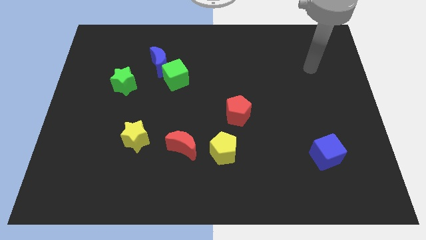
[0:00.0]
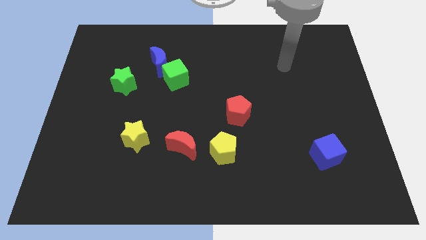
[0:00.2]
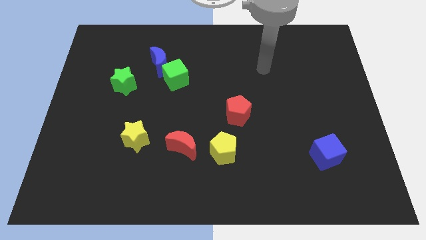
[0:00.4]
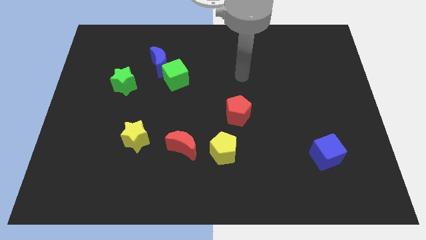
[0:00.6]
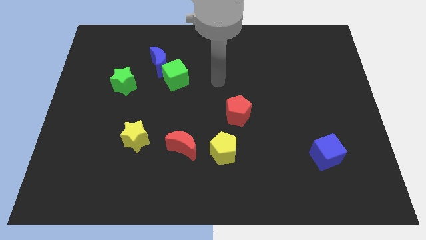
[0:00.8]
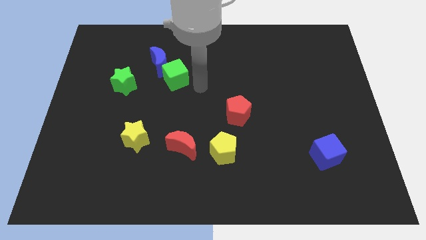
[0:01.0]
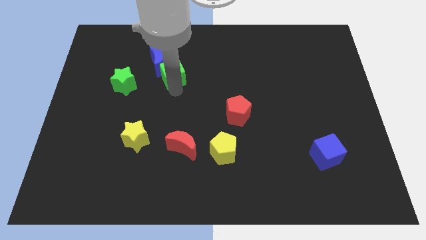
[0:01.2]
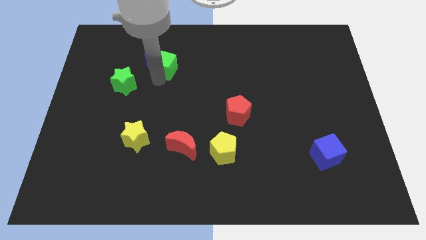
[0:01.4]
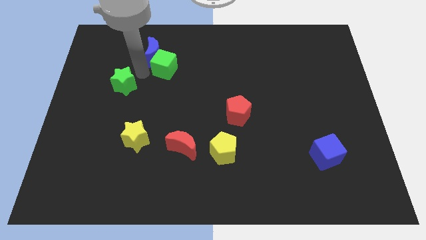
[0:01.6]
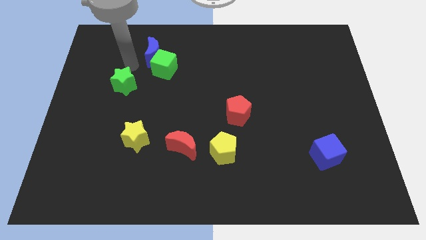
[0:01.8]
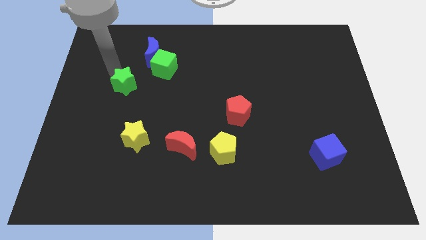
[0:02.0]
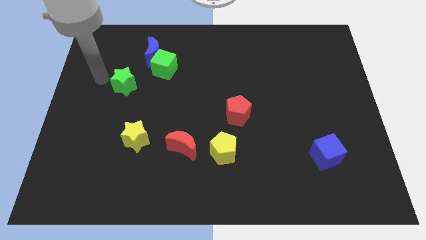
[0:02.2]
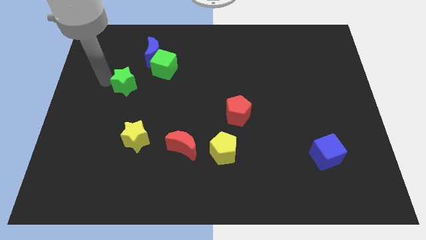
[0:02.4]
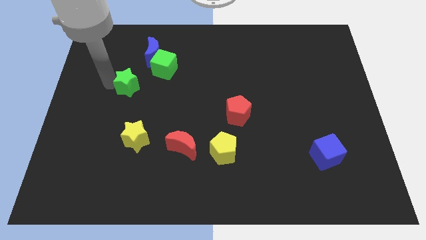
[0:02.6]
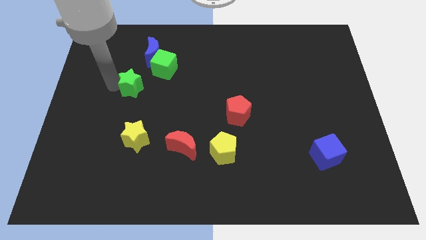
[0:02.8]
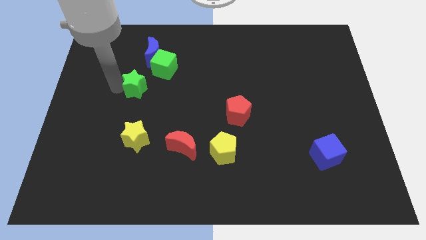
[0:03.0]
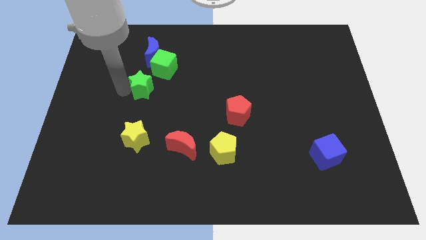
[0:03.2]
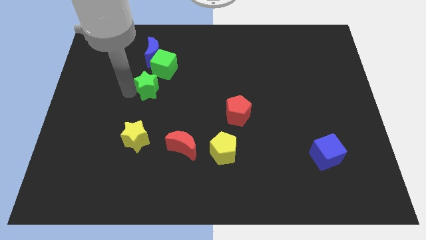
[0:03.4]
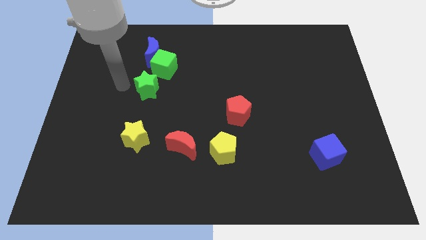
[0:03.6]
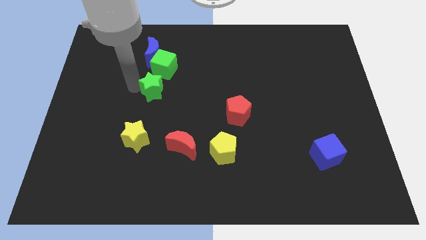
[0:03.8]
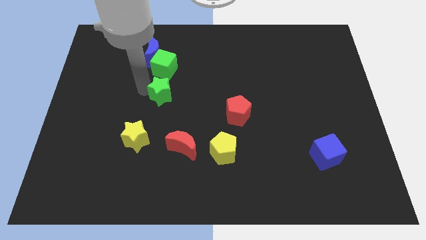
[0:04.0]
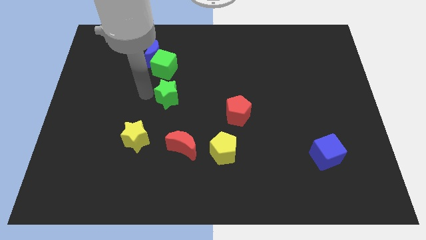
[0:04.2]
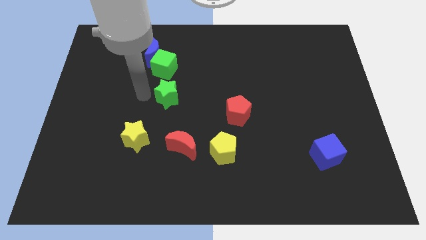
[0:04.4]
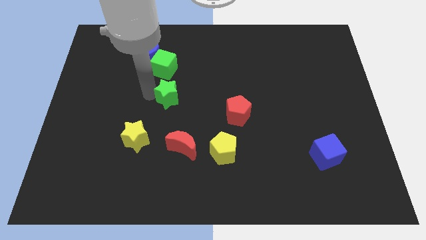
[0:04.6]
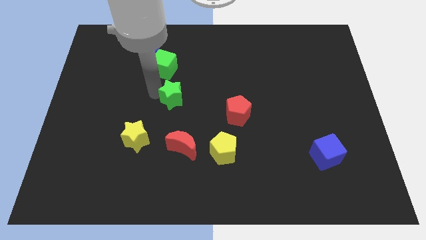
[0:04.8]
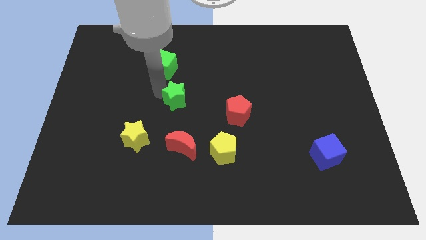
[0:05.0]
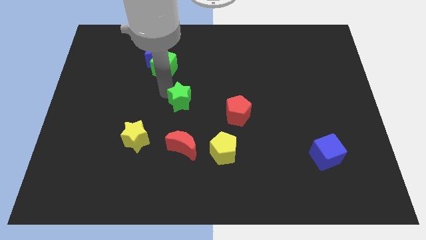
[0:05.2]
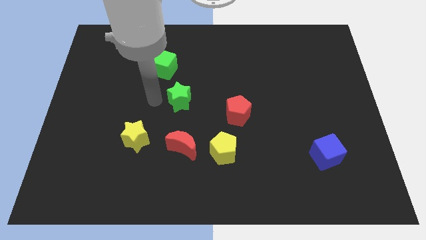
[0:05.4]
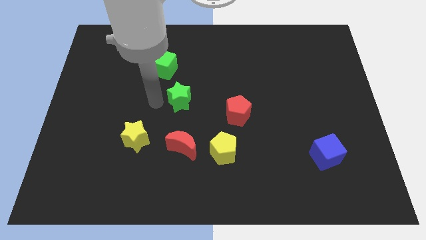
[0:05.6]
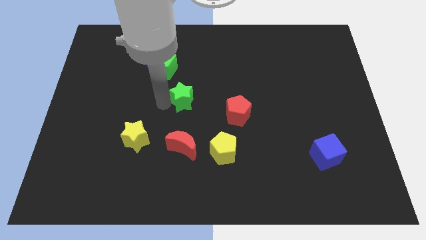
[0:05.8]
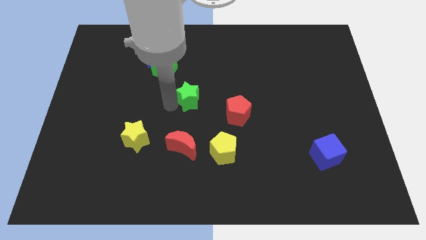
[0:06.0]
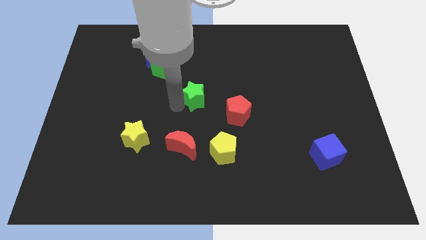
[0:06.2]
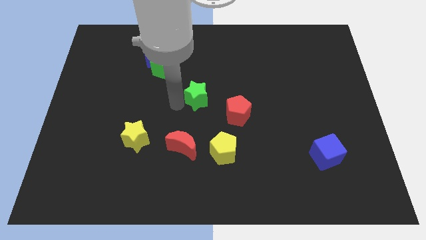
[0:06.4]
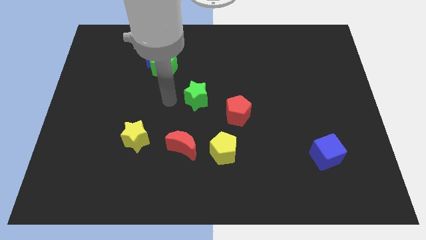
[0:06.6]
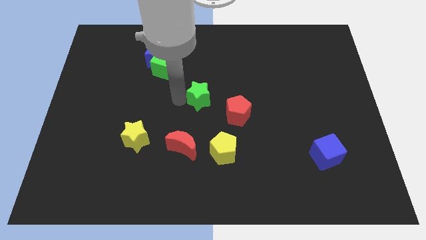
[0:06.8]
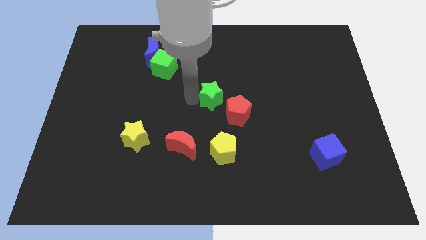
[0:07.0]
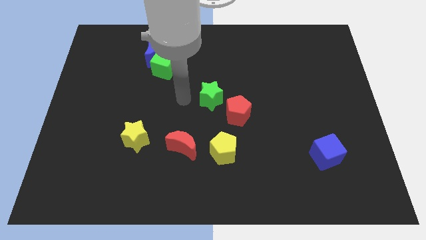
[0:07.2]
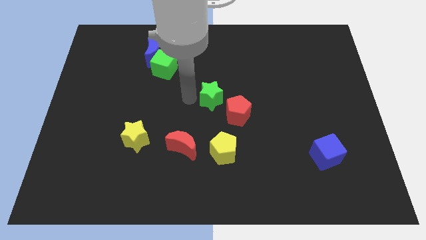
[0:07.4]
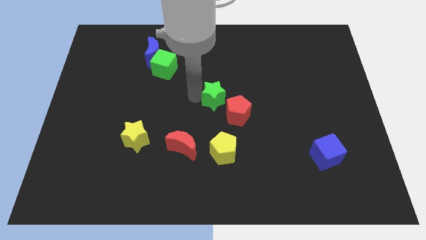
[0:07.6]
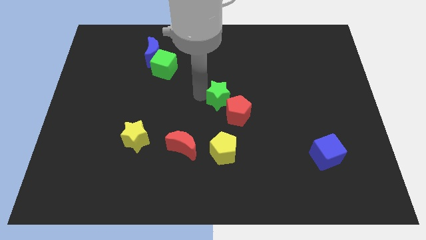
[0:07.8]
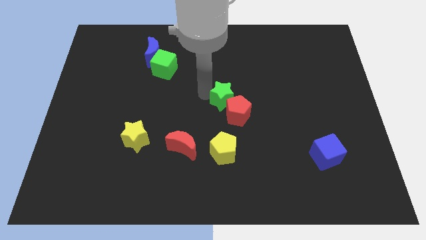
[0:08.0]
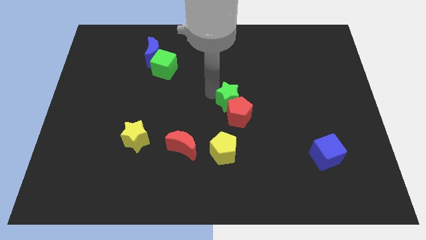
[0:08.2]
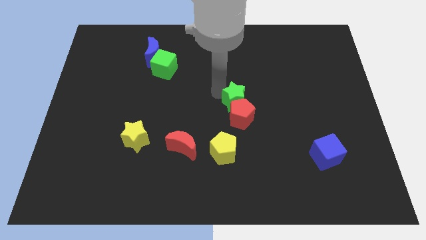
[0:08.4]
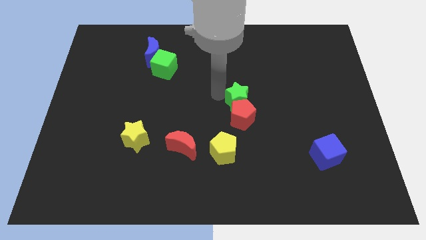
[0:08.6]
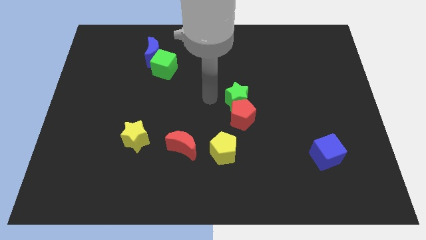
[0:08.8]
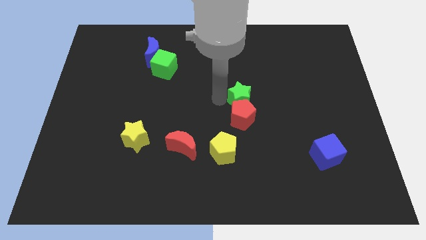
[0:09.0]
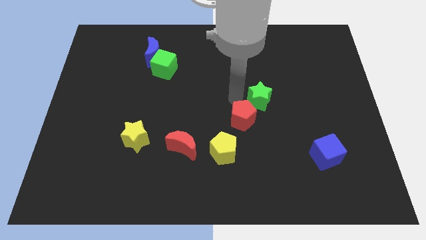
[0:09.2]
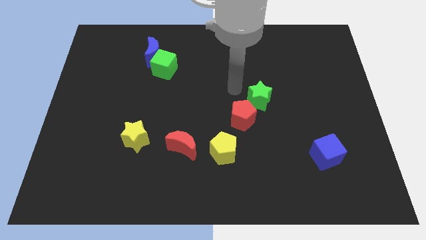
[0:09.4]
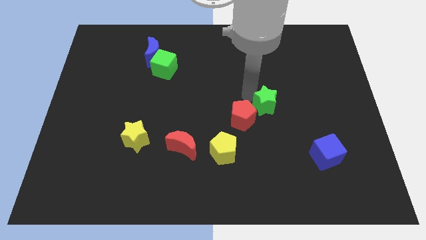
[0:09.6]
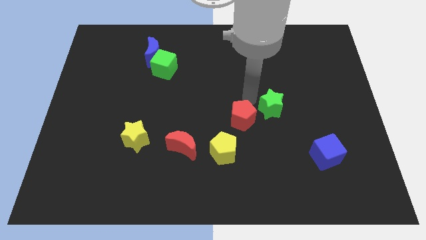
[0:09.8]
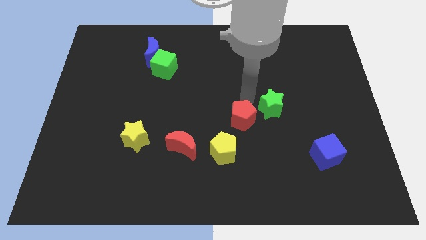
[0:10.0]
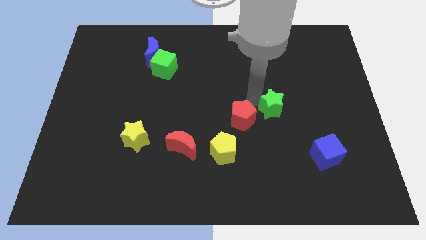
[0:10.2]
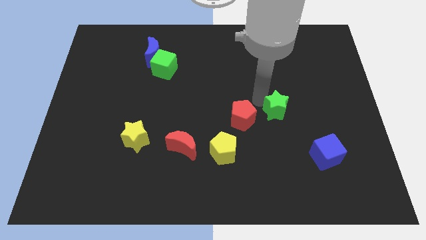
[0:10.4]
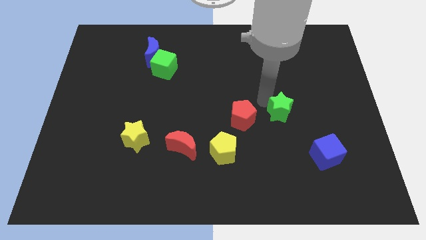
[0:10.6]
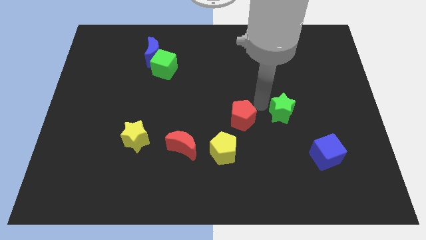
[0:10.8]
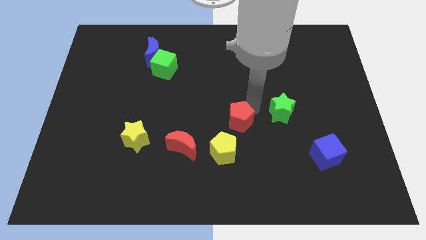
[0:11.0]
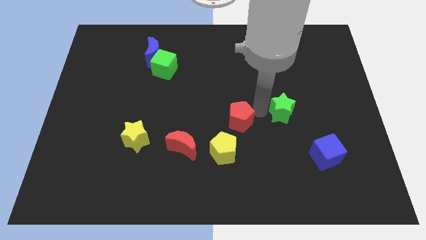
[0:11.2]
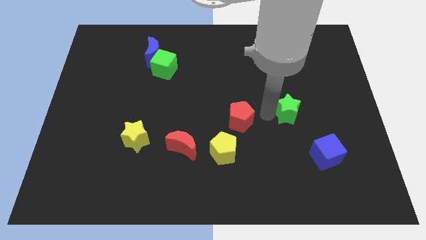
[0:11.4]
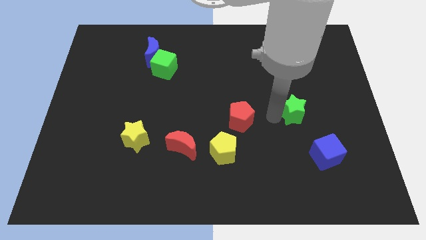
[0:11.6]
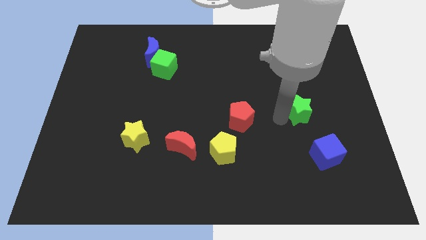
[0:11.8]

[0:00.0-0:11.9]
move the green star to the top of the blue cube
